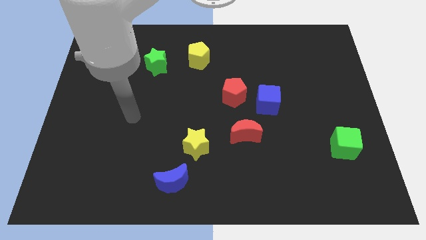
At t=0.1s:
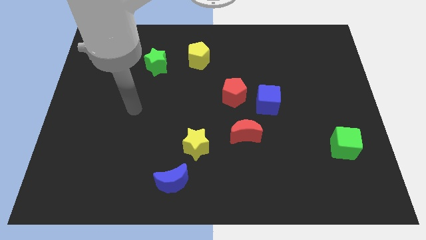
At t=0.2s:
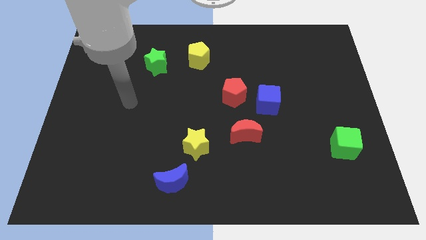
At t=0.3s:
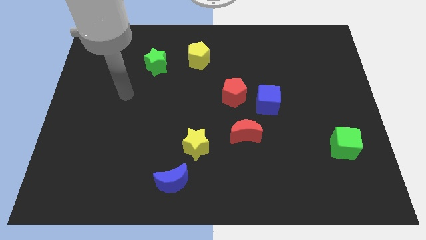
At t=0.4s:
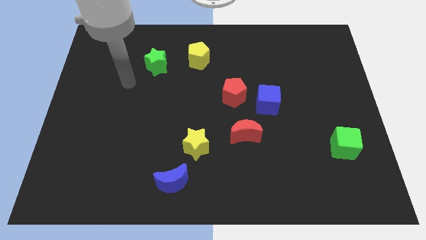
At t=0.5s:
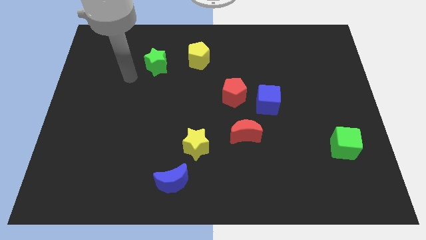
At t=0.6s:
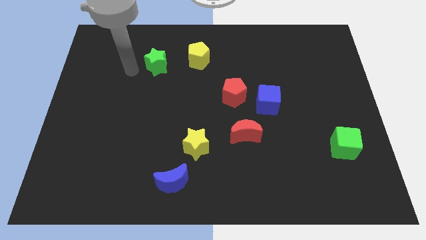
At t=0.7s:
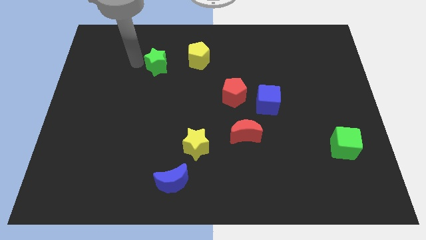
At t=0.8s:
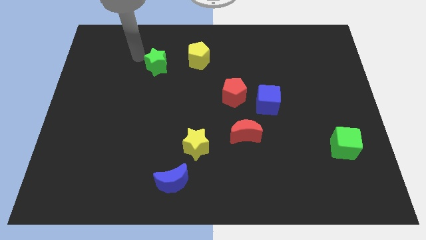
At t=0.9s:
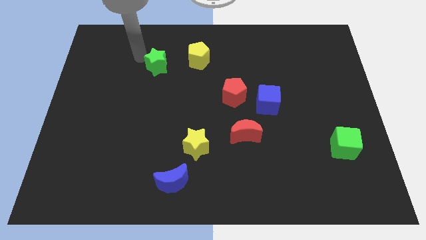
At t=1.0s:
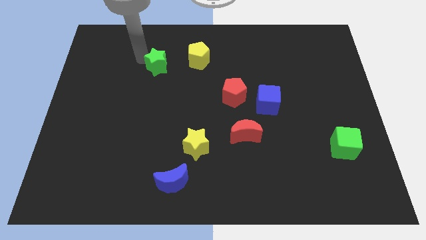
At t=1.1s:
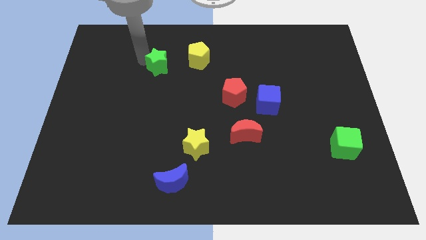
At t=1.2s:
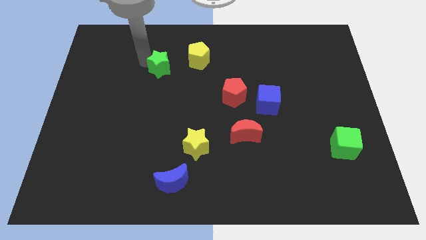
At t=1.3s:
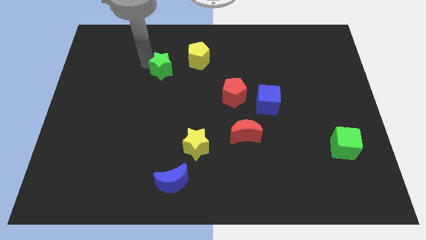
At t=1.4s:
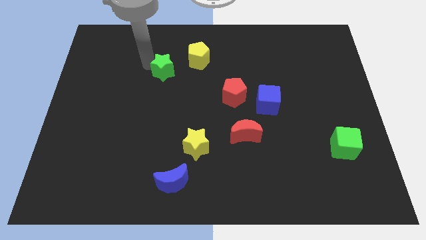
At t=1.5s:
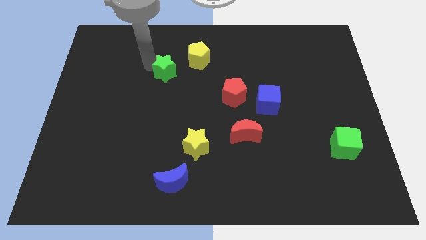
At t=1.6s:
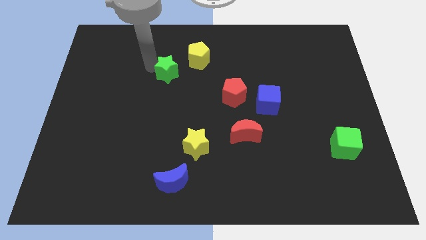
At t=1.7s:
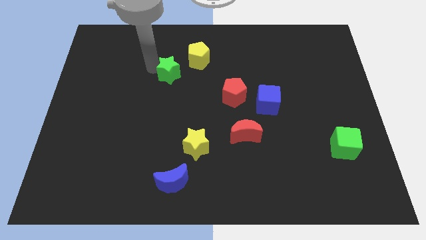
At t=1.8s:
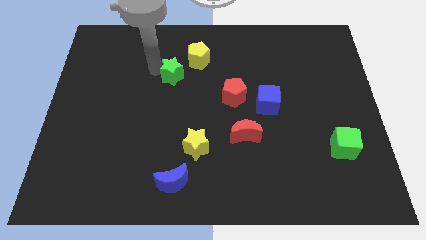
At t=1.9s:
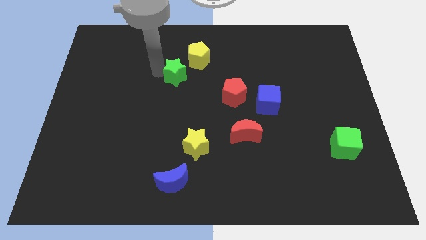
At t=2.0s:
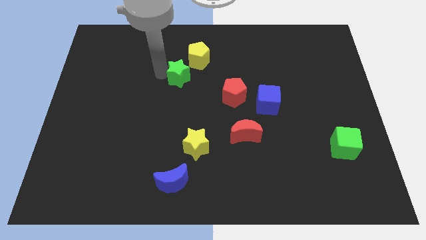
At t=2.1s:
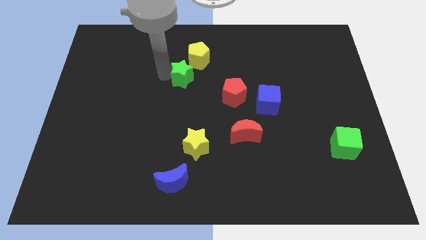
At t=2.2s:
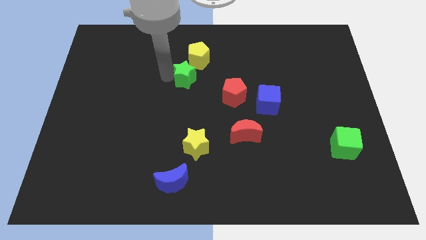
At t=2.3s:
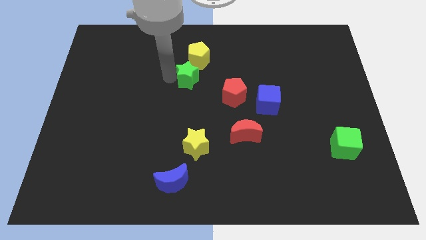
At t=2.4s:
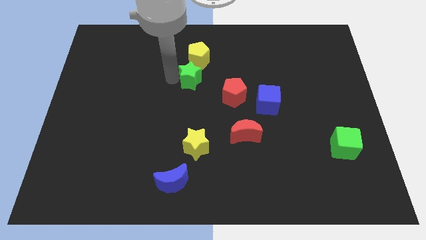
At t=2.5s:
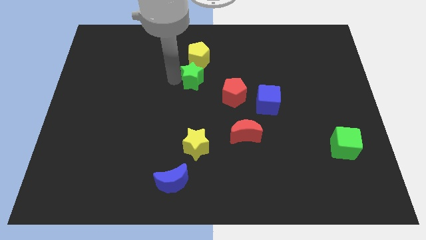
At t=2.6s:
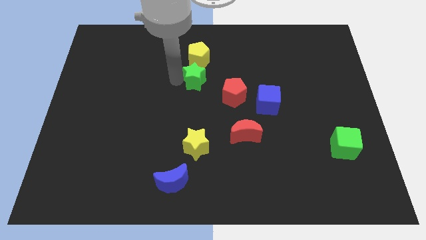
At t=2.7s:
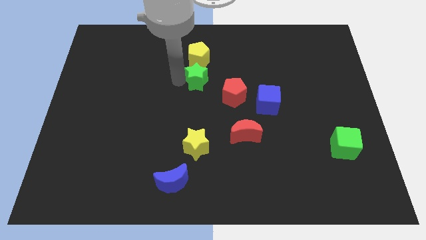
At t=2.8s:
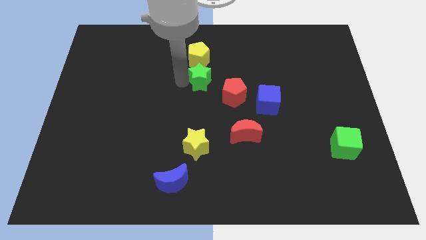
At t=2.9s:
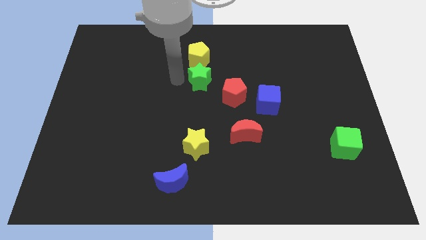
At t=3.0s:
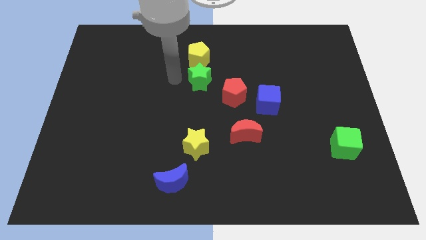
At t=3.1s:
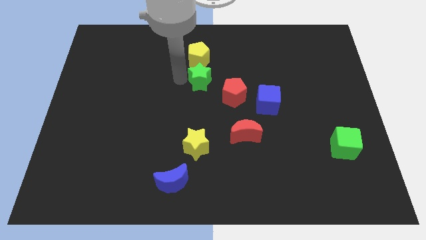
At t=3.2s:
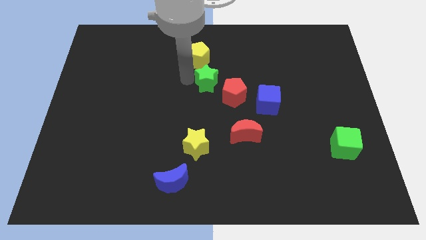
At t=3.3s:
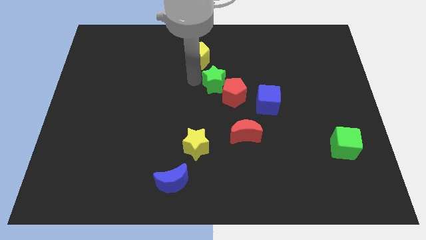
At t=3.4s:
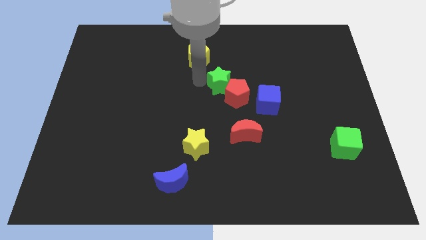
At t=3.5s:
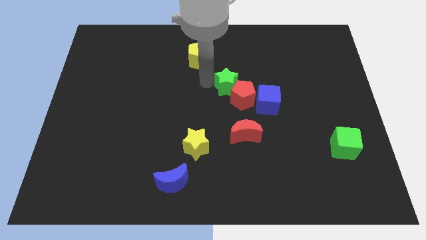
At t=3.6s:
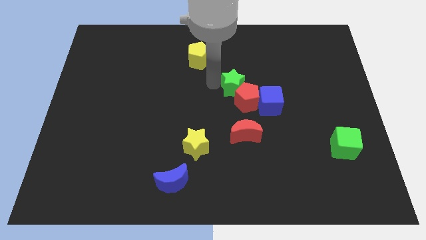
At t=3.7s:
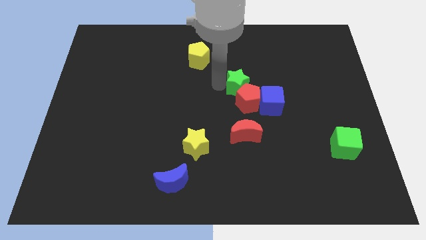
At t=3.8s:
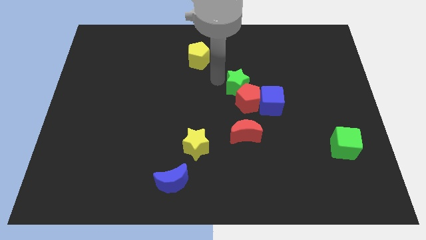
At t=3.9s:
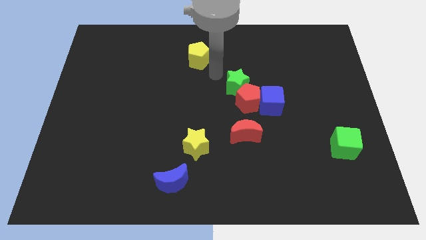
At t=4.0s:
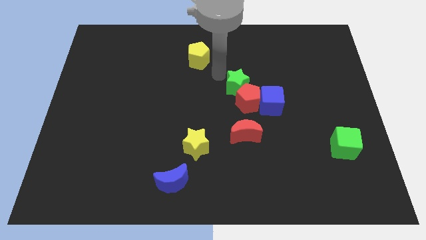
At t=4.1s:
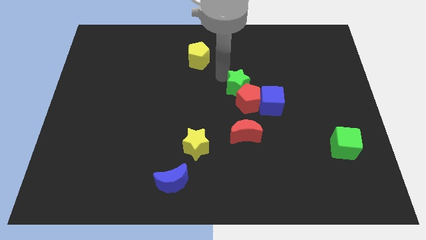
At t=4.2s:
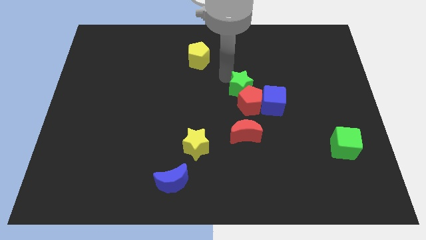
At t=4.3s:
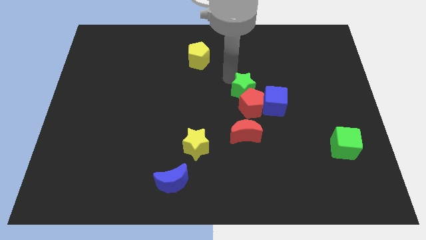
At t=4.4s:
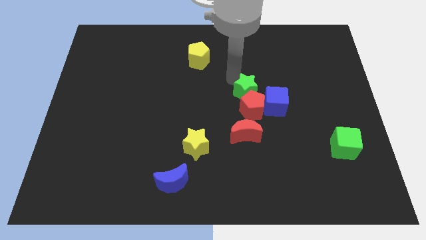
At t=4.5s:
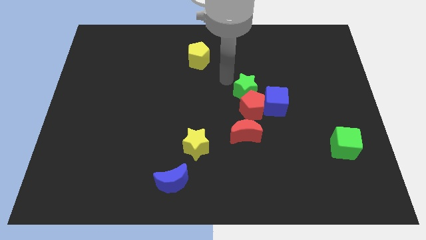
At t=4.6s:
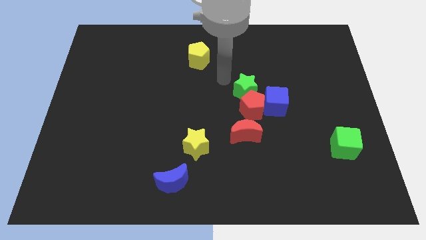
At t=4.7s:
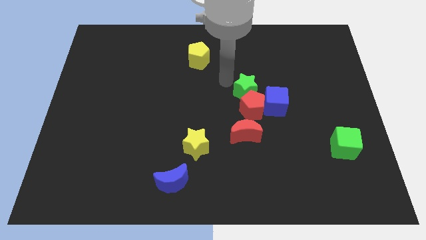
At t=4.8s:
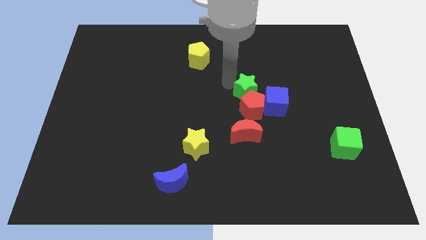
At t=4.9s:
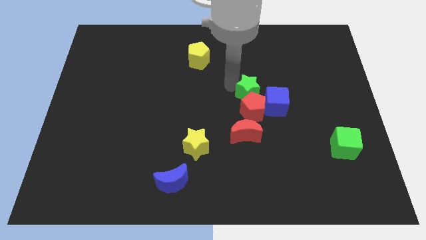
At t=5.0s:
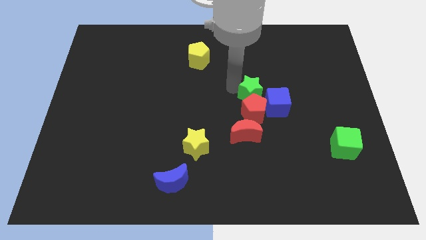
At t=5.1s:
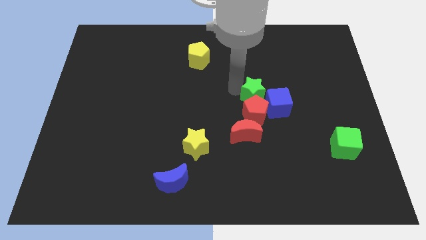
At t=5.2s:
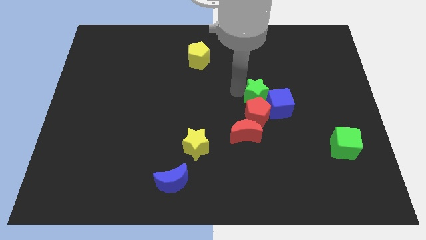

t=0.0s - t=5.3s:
slide the green star next to the blue cube

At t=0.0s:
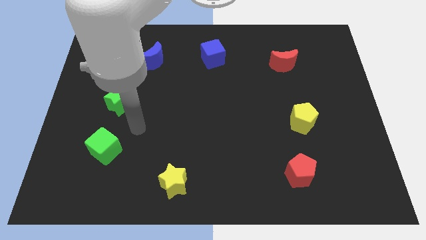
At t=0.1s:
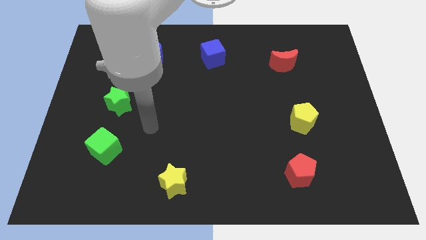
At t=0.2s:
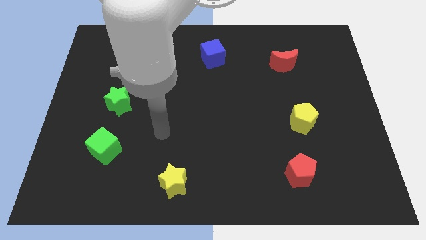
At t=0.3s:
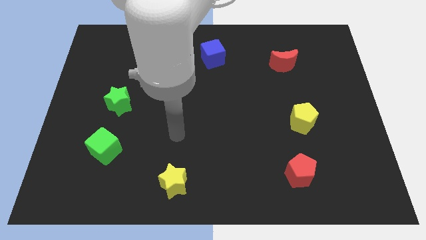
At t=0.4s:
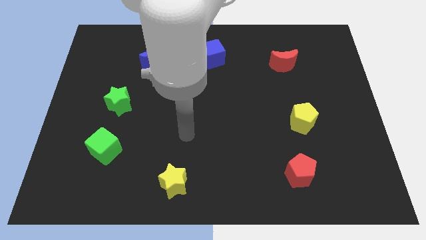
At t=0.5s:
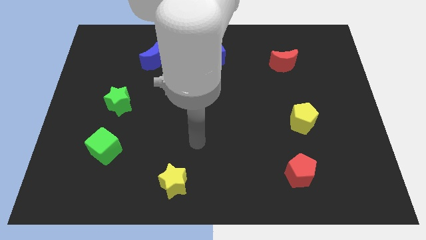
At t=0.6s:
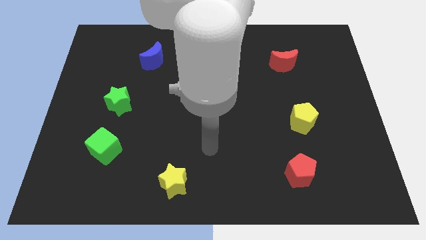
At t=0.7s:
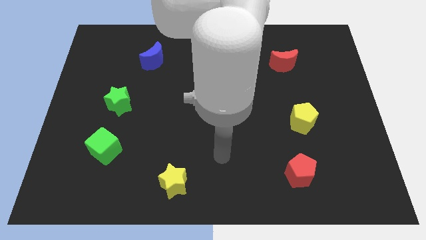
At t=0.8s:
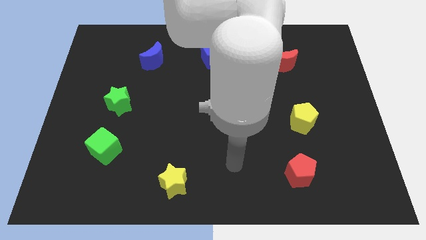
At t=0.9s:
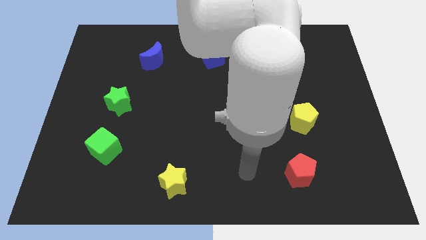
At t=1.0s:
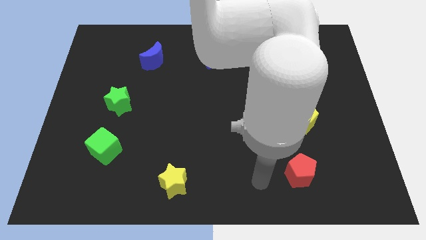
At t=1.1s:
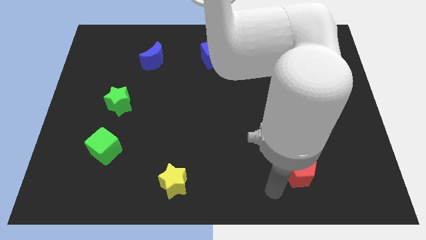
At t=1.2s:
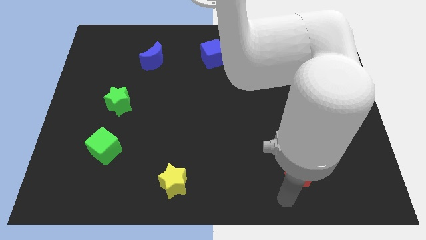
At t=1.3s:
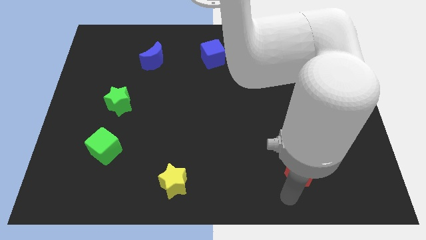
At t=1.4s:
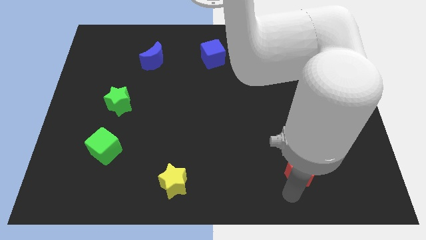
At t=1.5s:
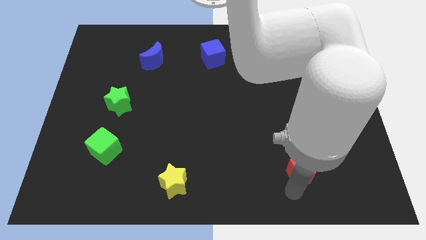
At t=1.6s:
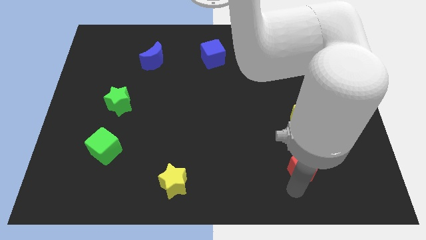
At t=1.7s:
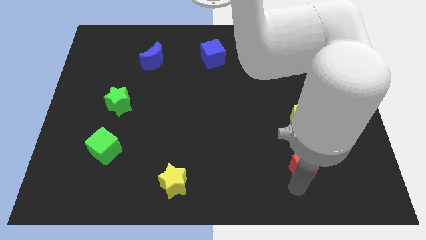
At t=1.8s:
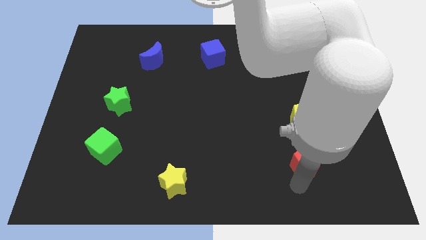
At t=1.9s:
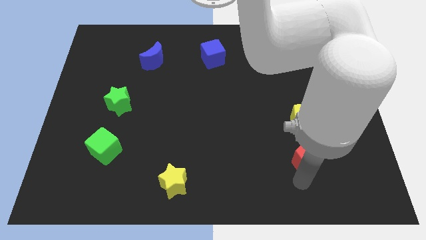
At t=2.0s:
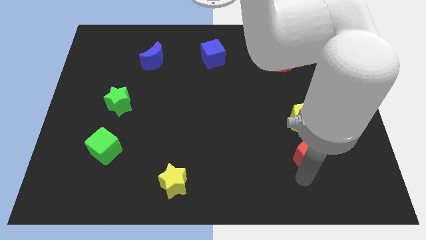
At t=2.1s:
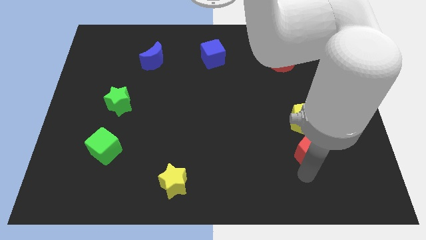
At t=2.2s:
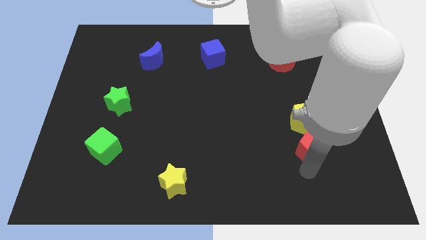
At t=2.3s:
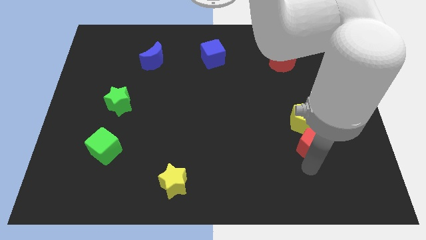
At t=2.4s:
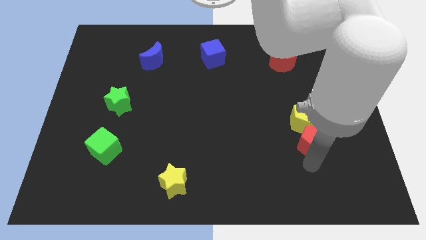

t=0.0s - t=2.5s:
slide the red pentagon next to the yellow pentagon
